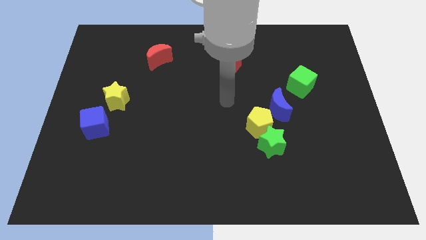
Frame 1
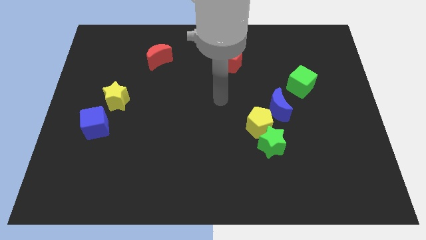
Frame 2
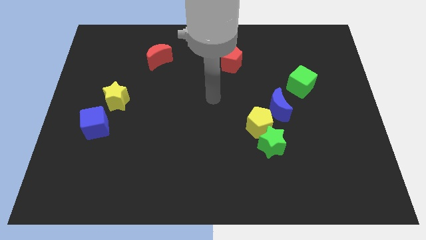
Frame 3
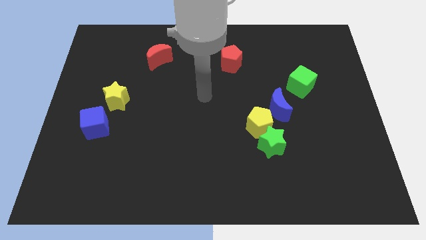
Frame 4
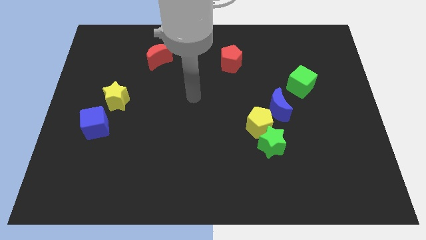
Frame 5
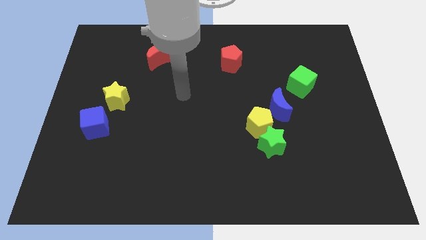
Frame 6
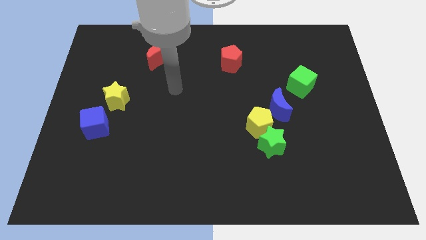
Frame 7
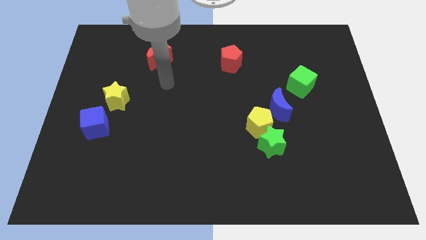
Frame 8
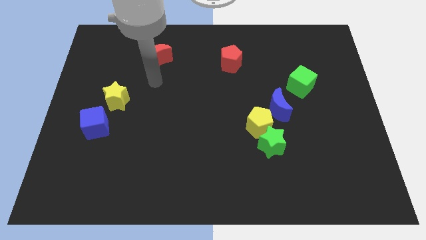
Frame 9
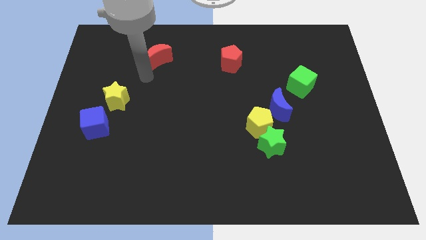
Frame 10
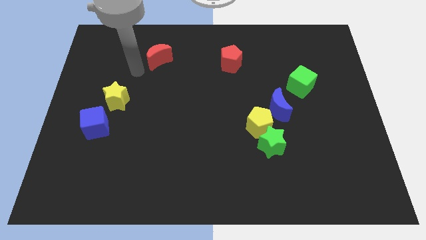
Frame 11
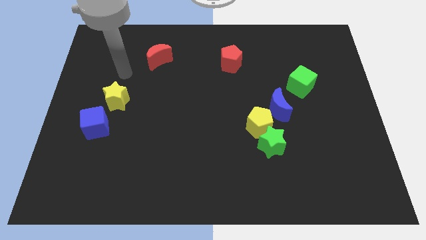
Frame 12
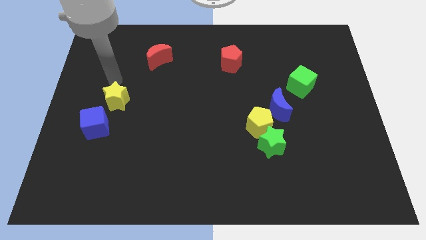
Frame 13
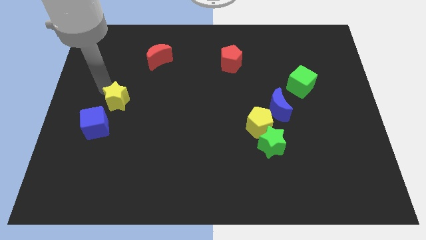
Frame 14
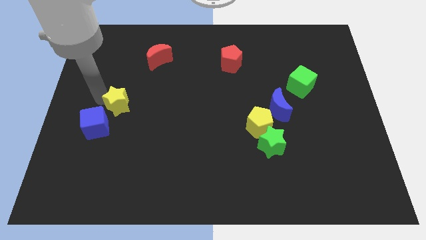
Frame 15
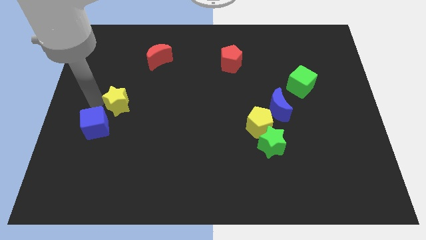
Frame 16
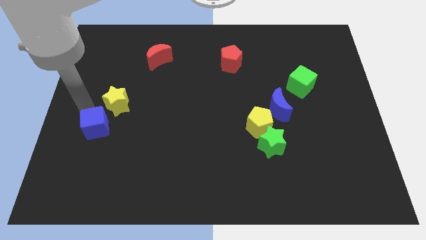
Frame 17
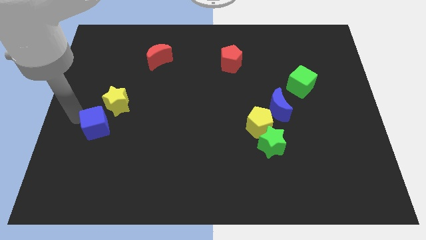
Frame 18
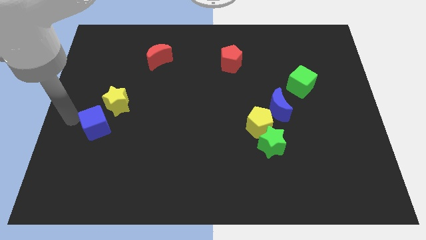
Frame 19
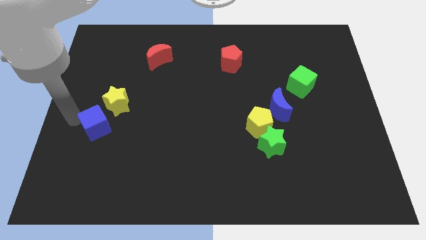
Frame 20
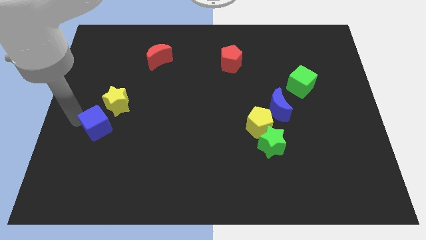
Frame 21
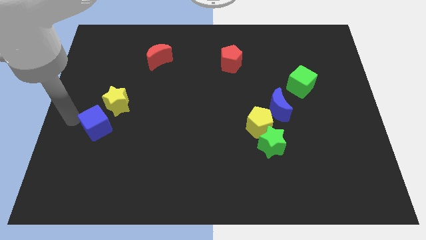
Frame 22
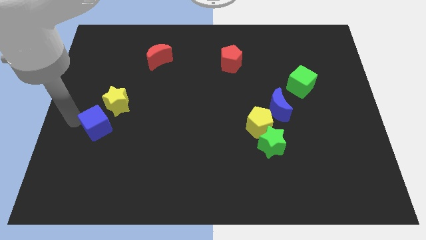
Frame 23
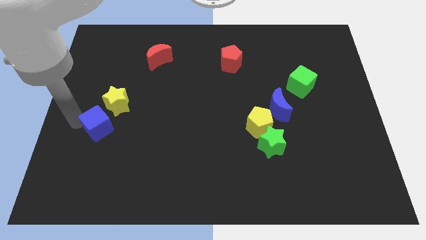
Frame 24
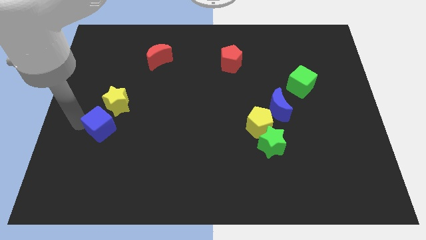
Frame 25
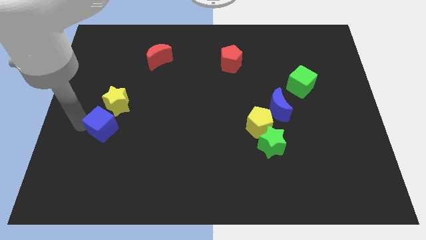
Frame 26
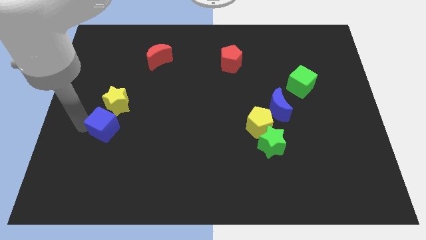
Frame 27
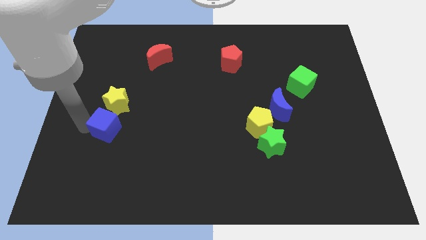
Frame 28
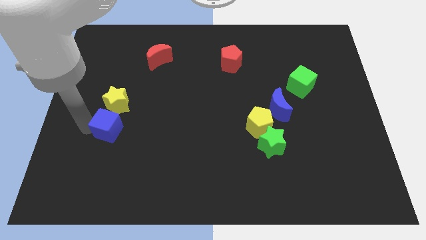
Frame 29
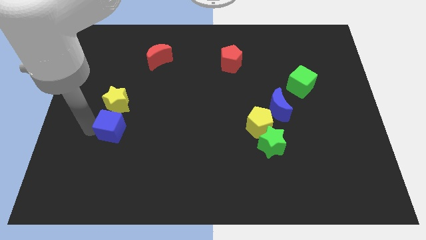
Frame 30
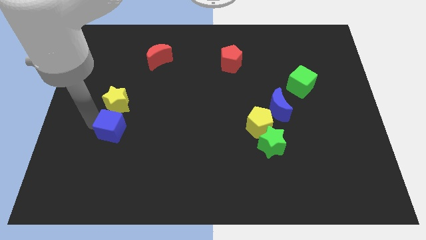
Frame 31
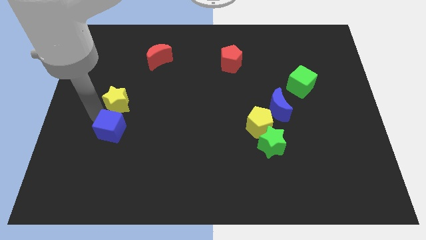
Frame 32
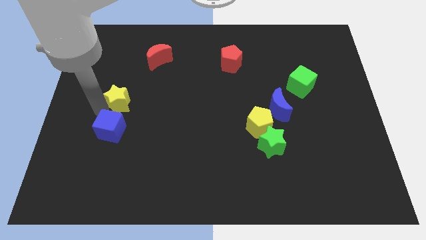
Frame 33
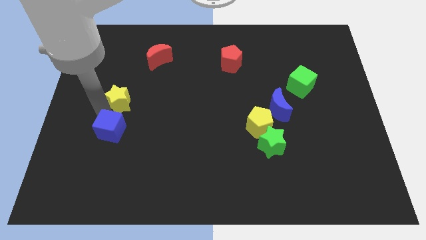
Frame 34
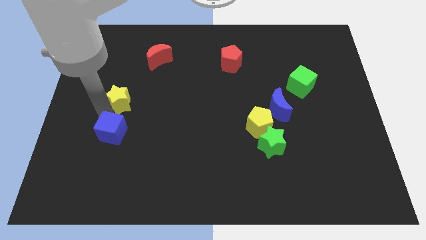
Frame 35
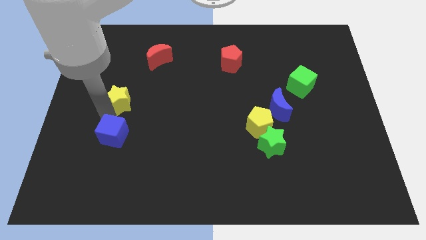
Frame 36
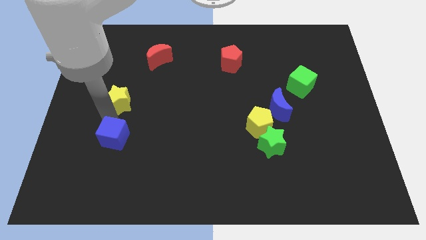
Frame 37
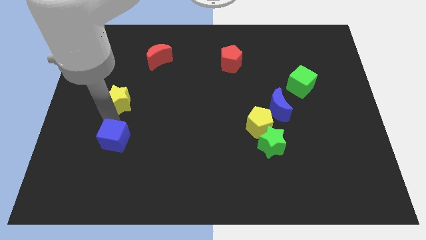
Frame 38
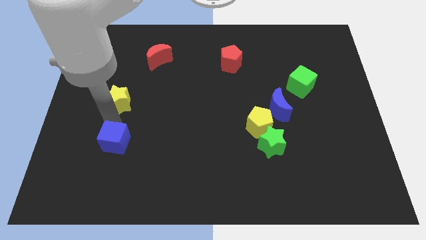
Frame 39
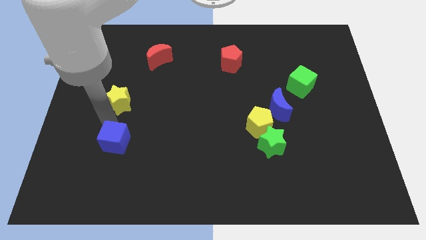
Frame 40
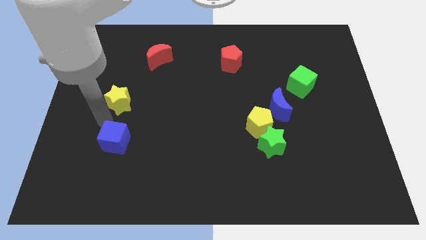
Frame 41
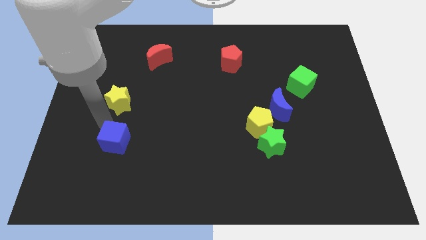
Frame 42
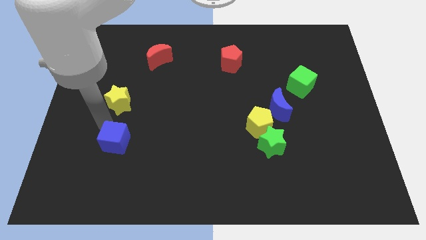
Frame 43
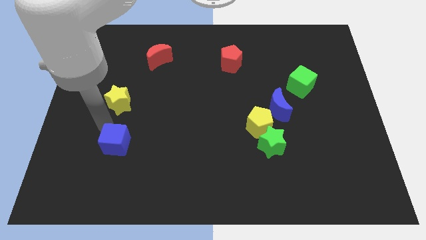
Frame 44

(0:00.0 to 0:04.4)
move the blue cube a little bit downwards and to the right diagonally

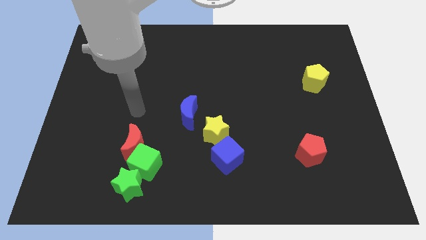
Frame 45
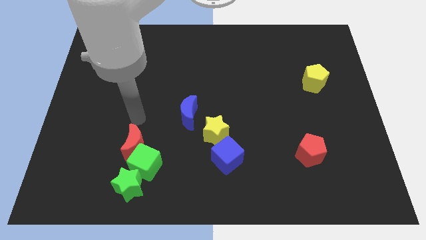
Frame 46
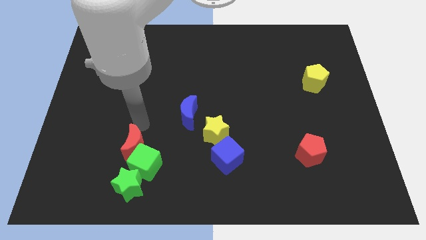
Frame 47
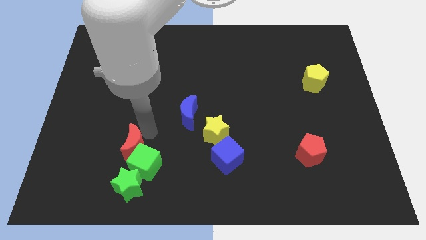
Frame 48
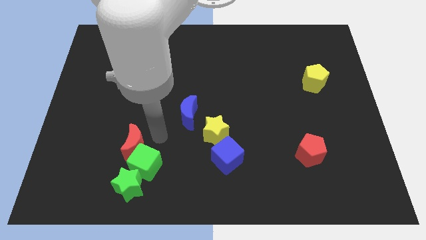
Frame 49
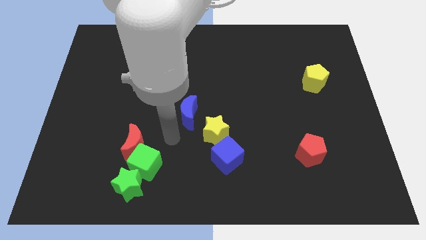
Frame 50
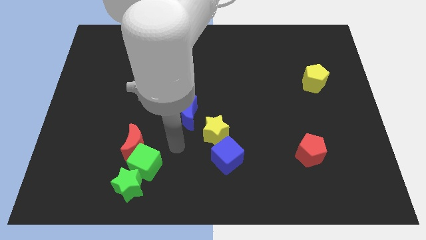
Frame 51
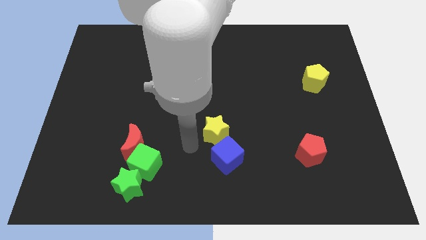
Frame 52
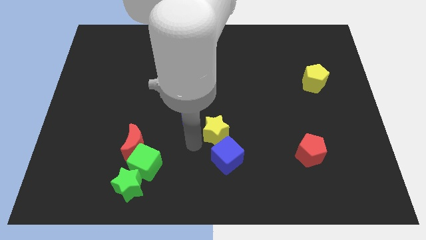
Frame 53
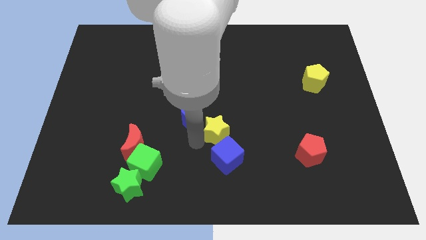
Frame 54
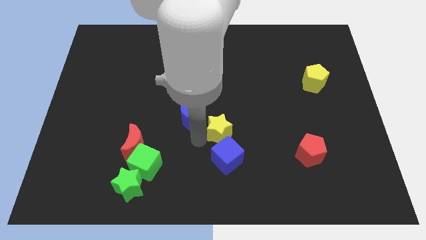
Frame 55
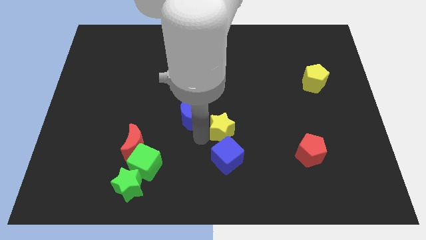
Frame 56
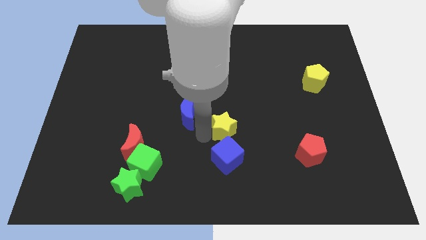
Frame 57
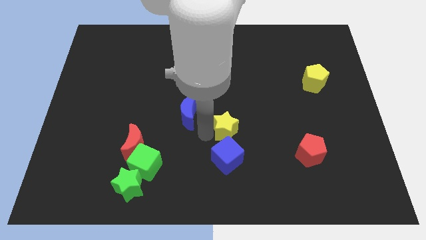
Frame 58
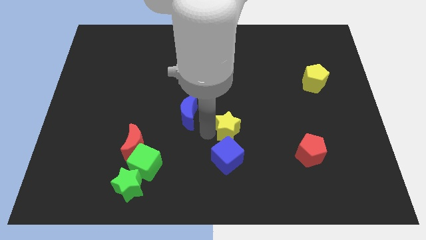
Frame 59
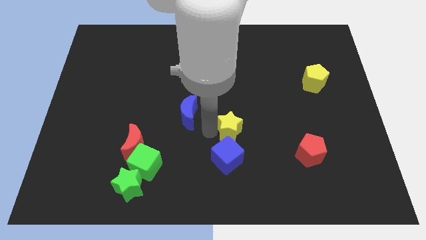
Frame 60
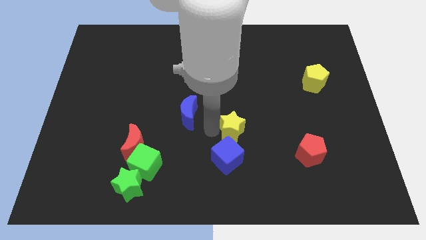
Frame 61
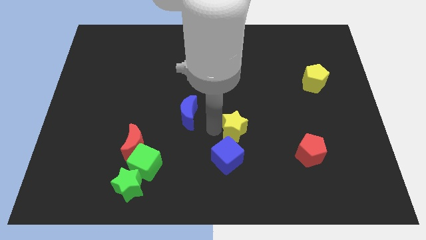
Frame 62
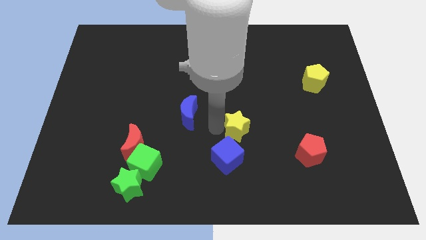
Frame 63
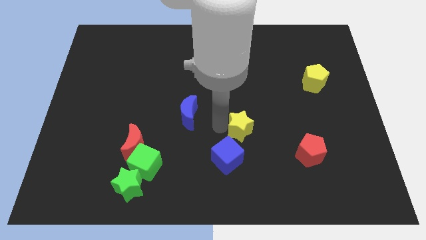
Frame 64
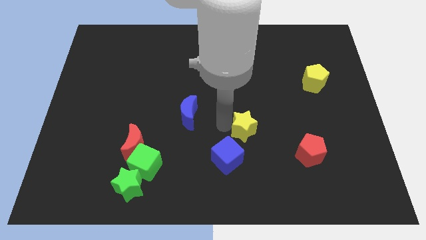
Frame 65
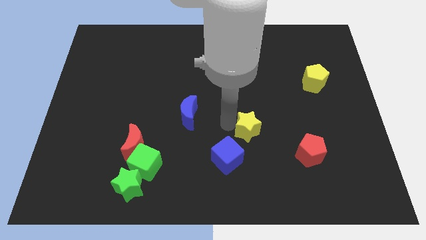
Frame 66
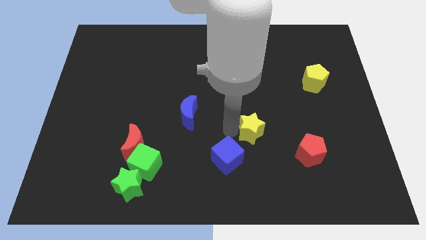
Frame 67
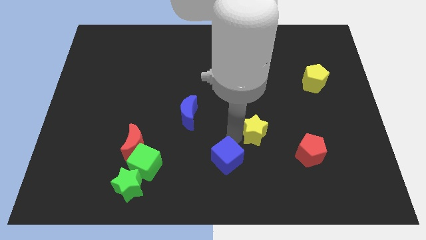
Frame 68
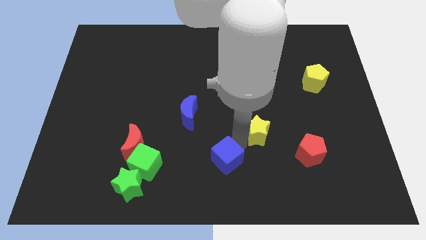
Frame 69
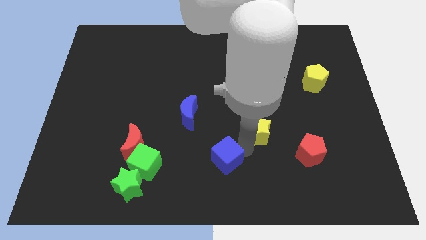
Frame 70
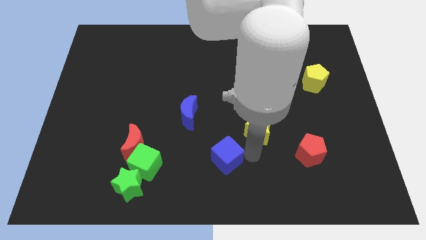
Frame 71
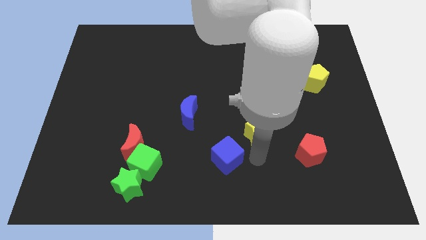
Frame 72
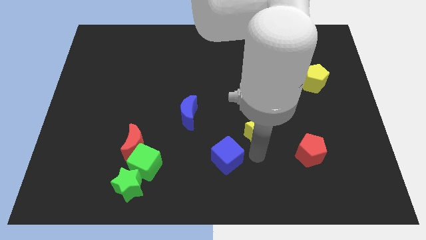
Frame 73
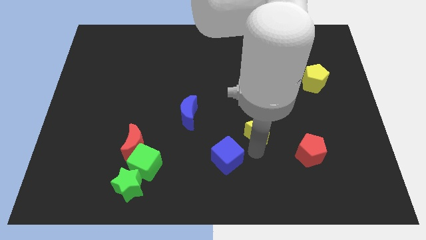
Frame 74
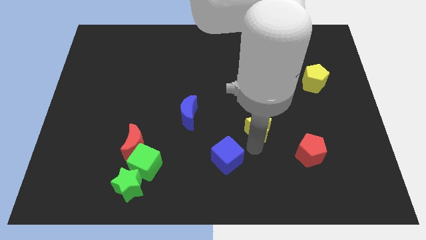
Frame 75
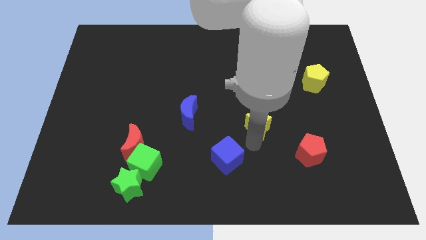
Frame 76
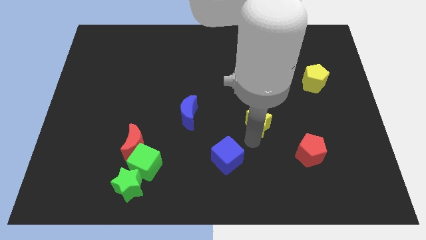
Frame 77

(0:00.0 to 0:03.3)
slide the yellow star upwards and then to the right slightly
